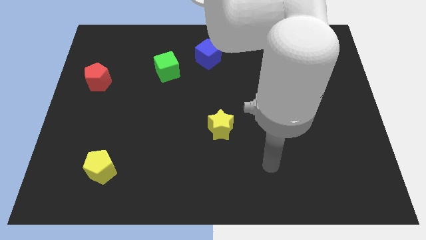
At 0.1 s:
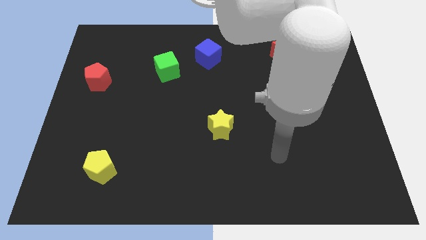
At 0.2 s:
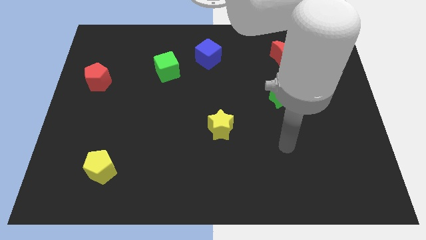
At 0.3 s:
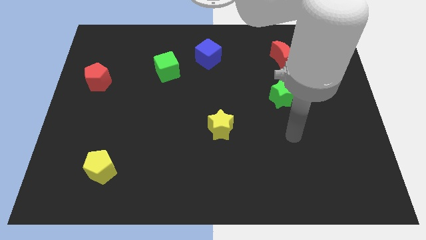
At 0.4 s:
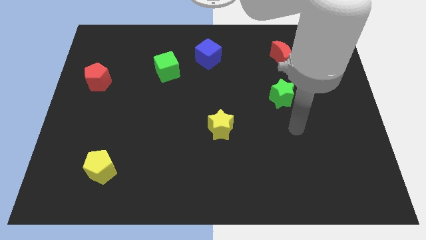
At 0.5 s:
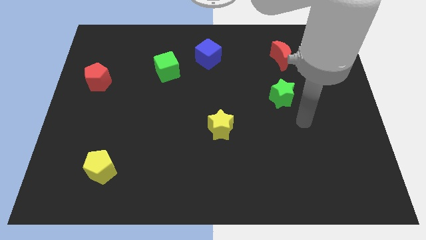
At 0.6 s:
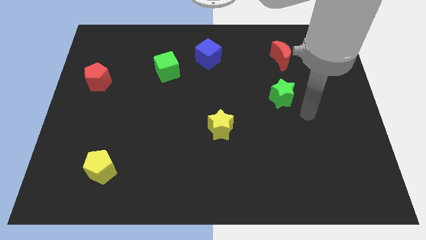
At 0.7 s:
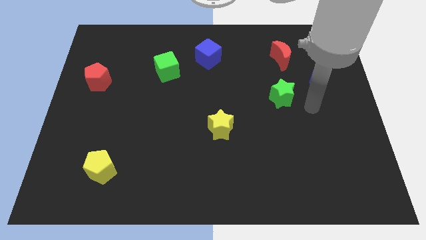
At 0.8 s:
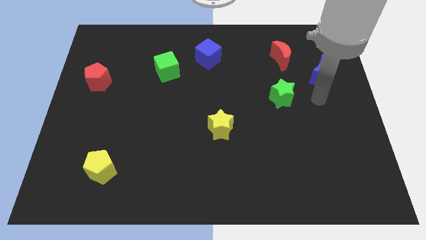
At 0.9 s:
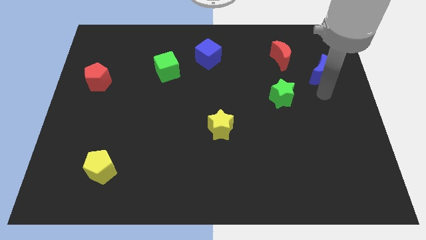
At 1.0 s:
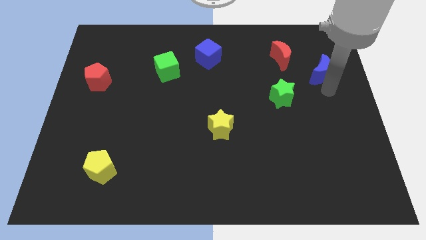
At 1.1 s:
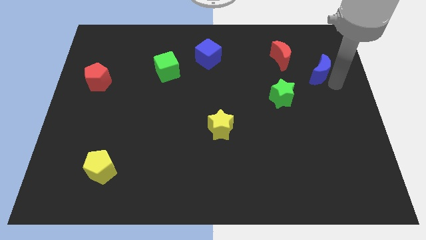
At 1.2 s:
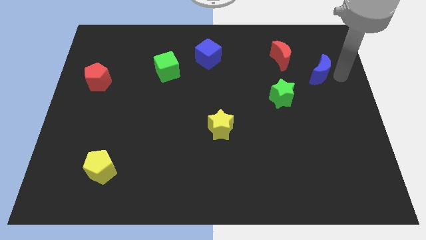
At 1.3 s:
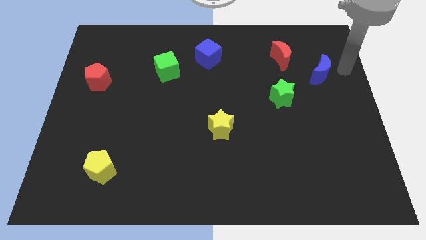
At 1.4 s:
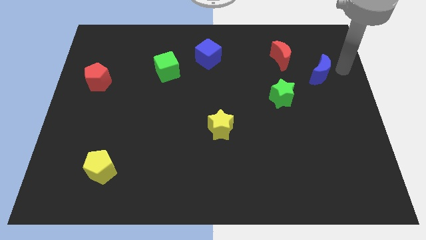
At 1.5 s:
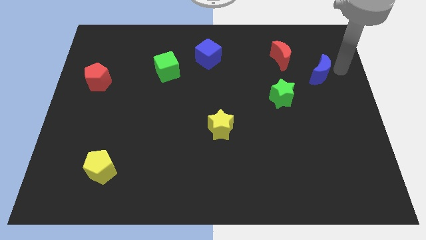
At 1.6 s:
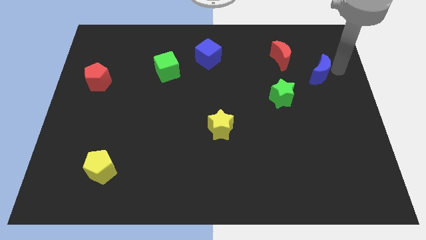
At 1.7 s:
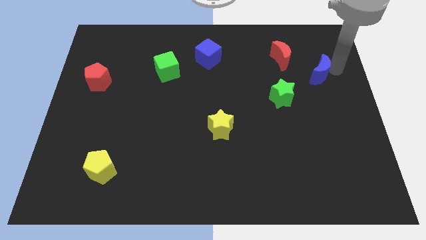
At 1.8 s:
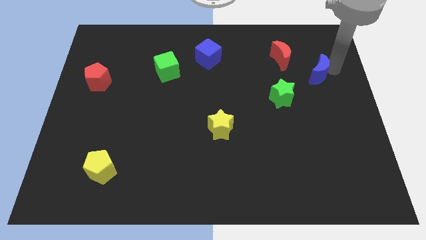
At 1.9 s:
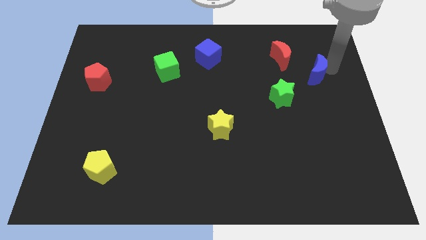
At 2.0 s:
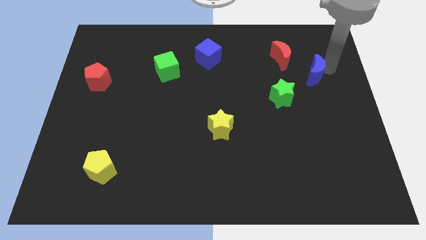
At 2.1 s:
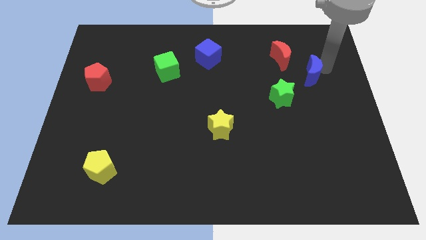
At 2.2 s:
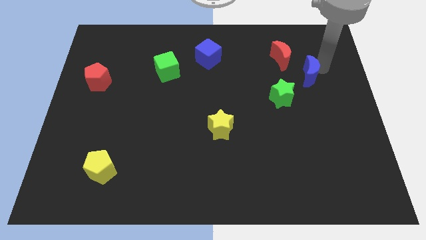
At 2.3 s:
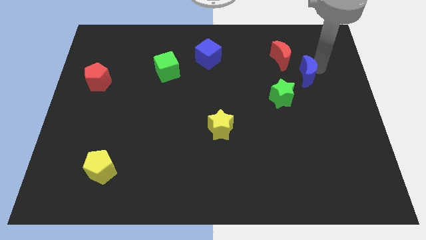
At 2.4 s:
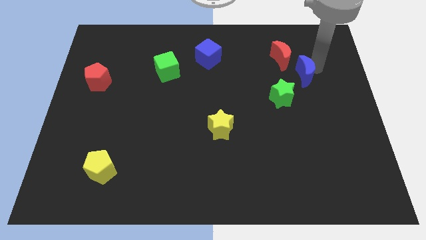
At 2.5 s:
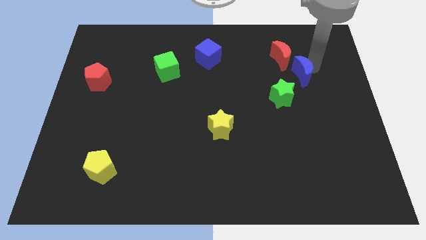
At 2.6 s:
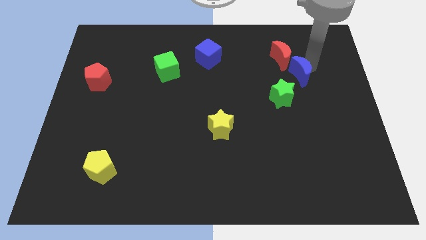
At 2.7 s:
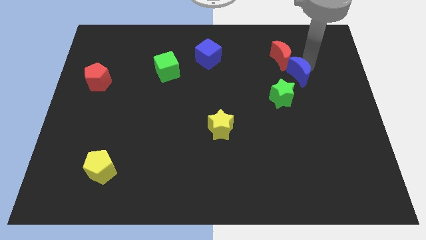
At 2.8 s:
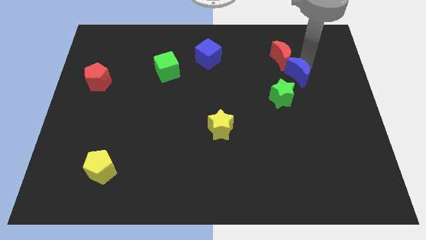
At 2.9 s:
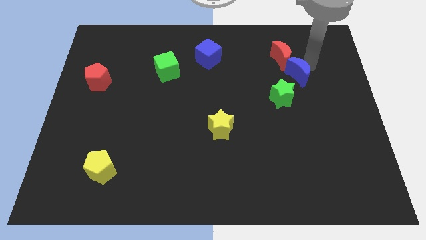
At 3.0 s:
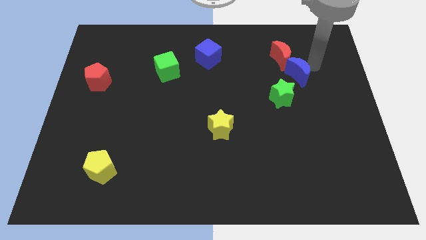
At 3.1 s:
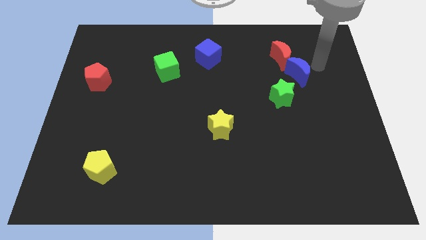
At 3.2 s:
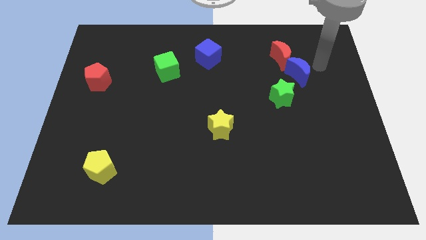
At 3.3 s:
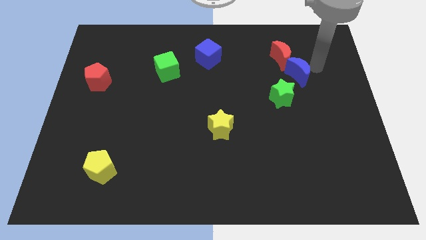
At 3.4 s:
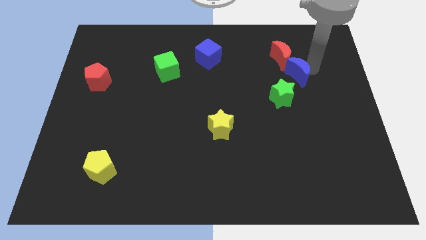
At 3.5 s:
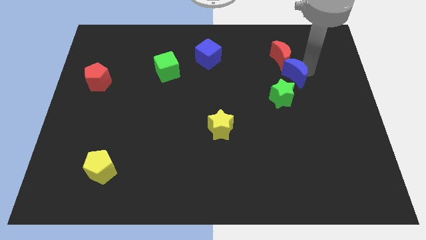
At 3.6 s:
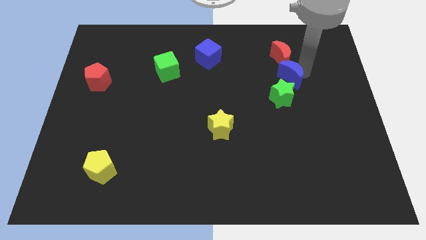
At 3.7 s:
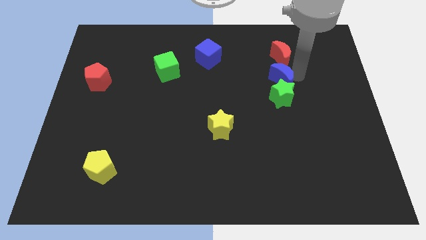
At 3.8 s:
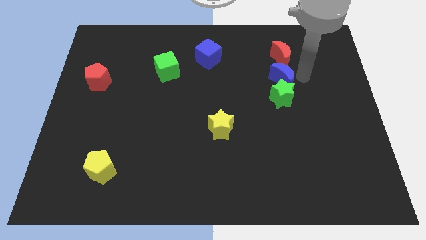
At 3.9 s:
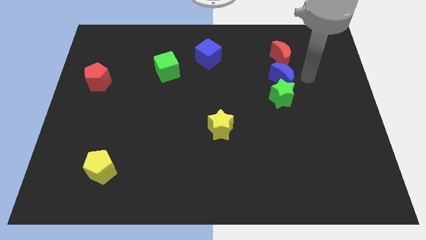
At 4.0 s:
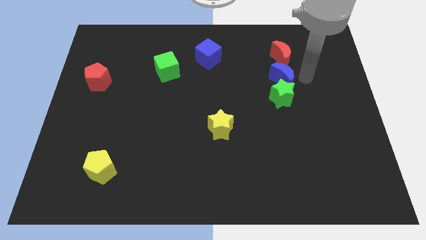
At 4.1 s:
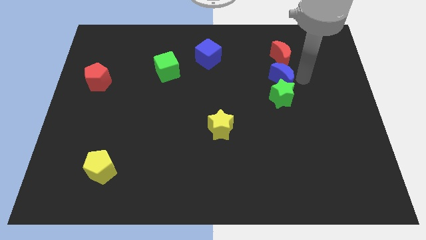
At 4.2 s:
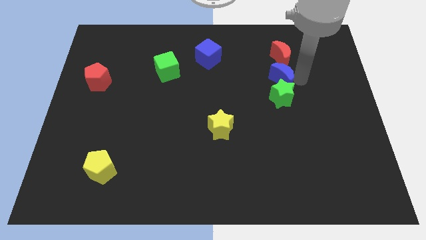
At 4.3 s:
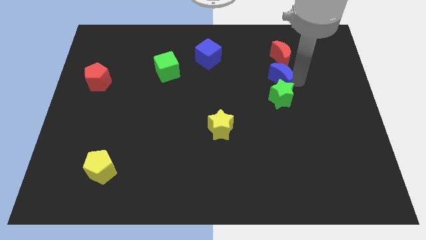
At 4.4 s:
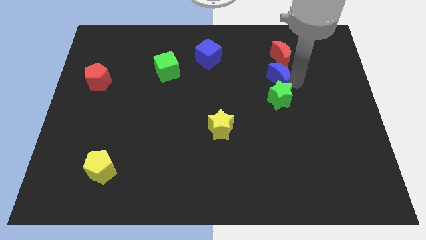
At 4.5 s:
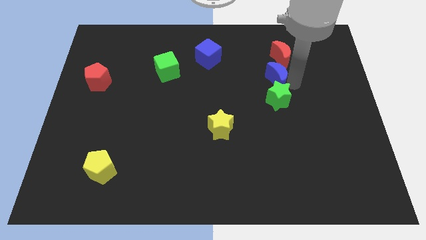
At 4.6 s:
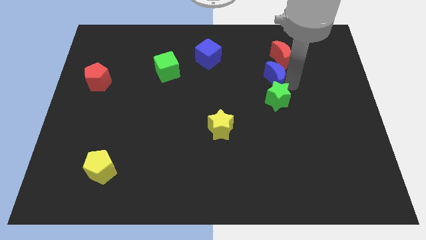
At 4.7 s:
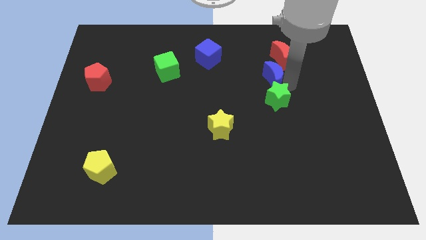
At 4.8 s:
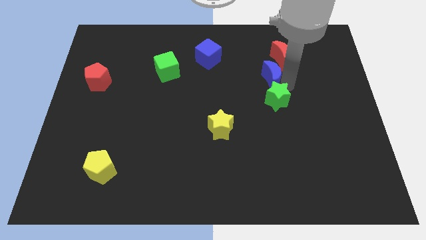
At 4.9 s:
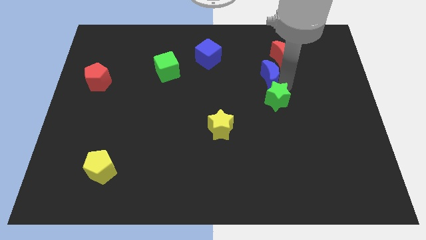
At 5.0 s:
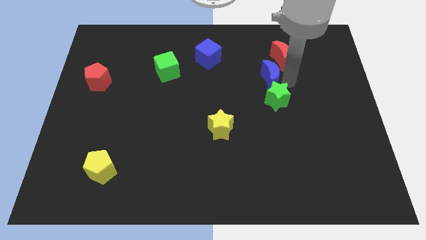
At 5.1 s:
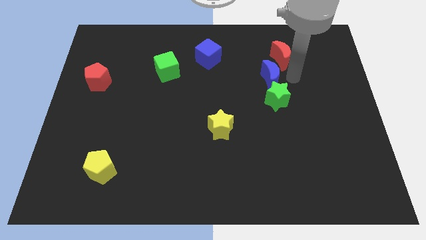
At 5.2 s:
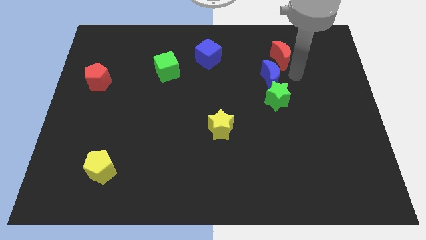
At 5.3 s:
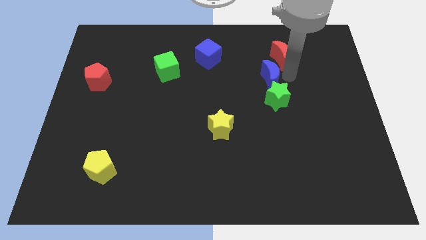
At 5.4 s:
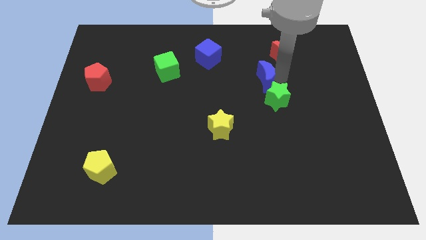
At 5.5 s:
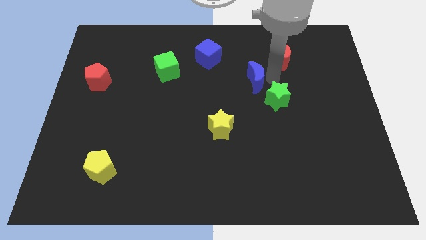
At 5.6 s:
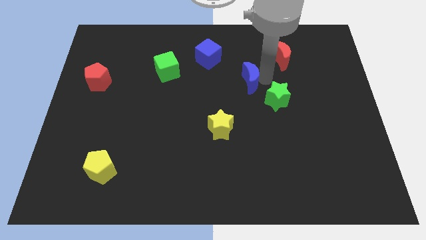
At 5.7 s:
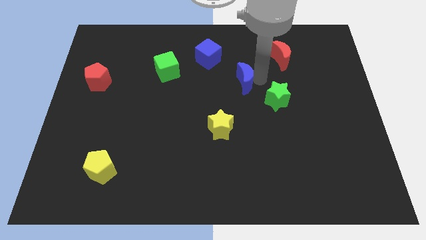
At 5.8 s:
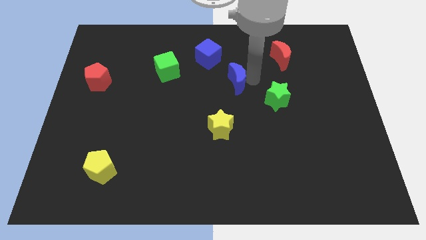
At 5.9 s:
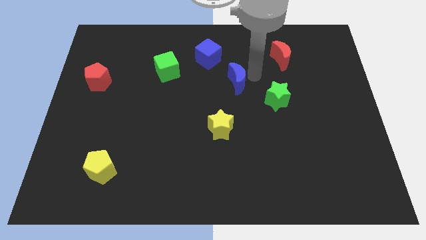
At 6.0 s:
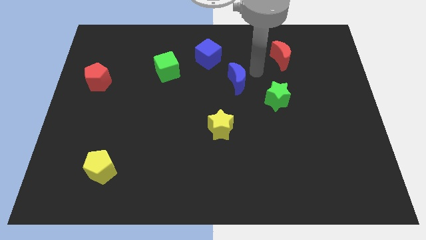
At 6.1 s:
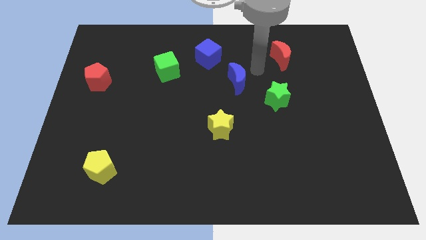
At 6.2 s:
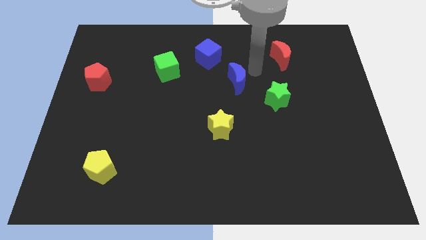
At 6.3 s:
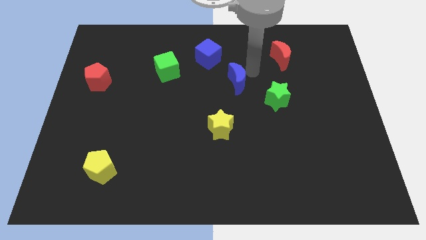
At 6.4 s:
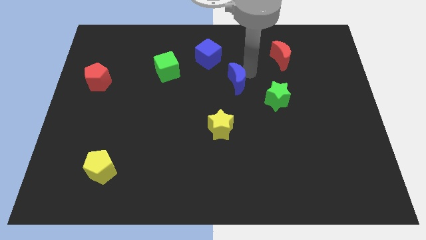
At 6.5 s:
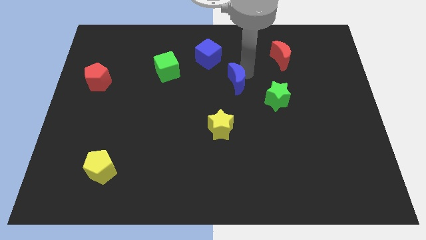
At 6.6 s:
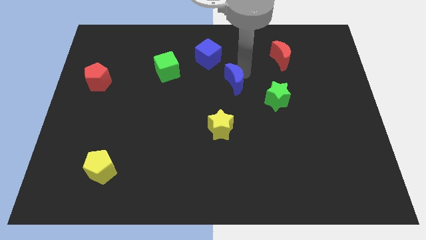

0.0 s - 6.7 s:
put the blue moon to the top of the yellow star

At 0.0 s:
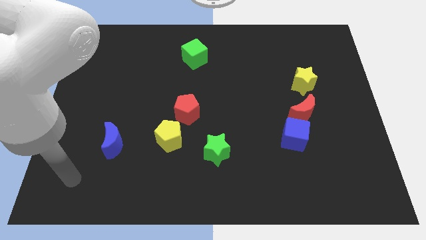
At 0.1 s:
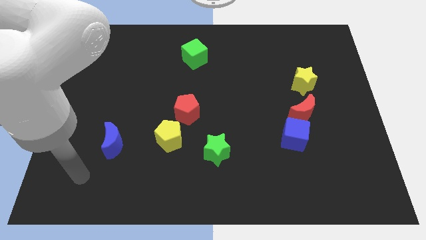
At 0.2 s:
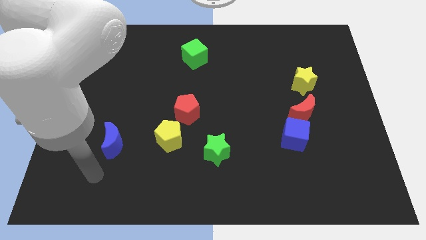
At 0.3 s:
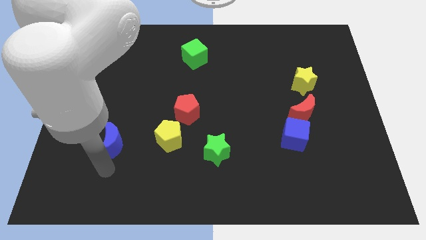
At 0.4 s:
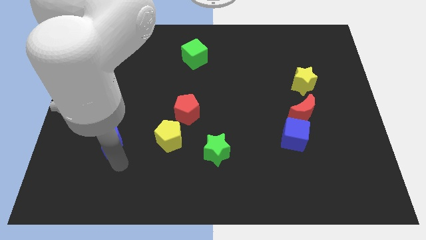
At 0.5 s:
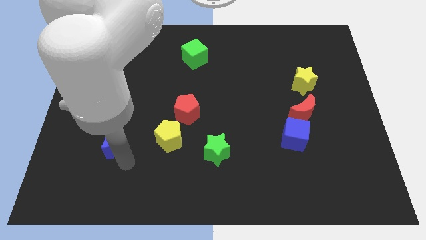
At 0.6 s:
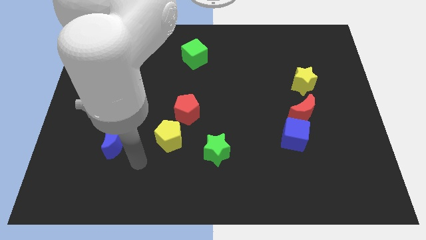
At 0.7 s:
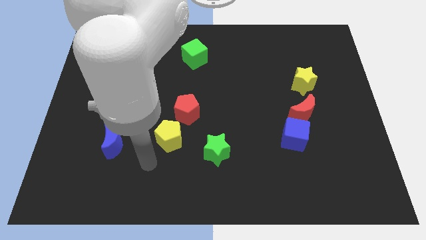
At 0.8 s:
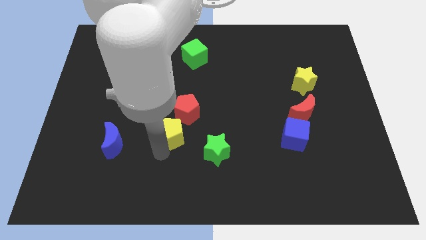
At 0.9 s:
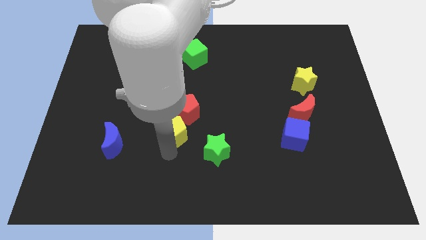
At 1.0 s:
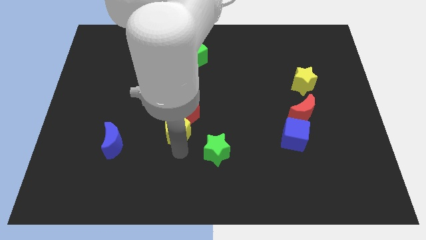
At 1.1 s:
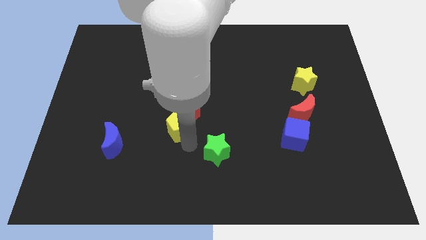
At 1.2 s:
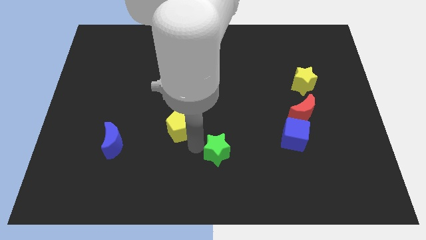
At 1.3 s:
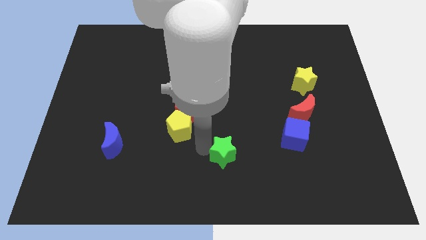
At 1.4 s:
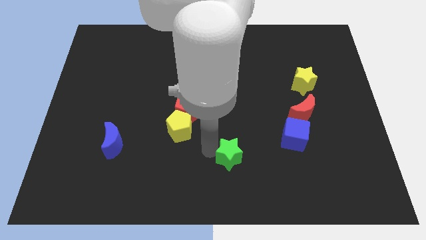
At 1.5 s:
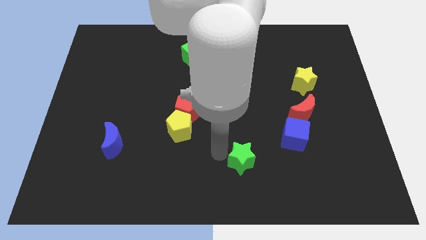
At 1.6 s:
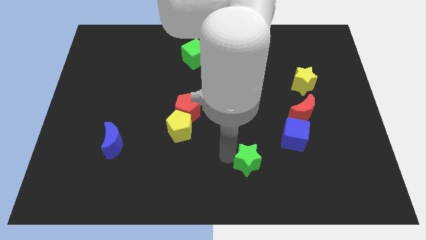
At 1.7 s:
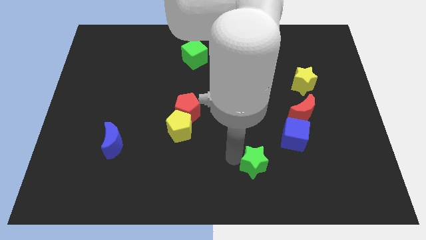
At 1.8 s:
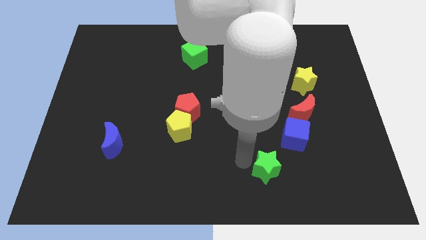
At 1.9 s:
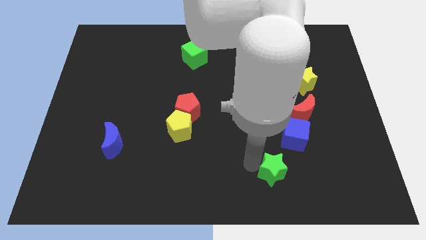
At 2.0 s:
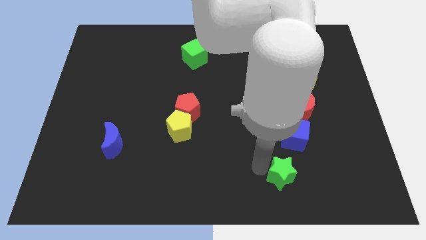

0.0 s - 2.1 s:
slide the green star to the bottom of the blue cube
